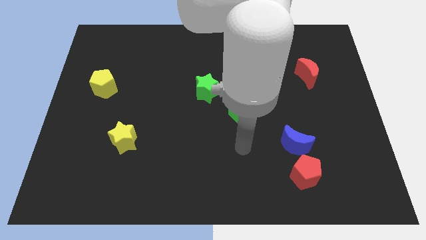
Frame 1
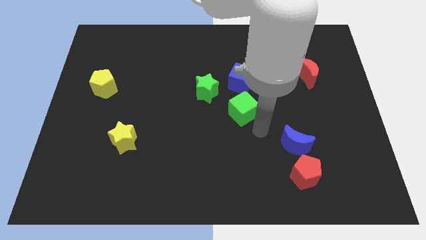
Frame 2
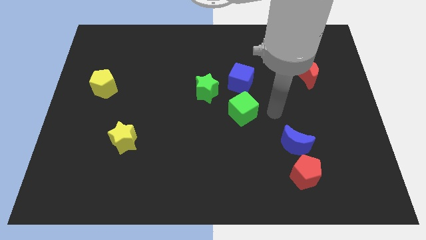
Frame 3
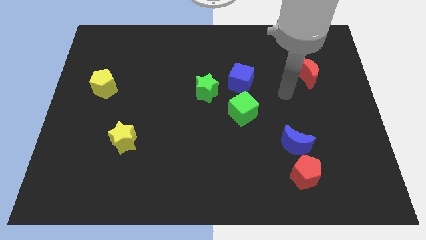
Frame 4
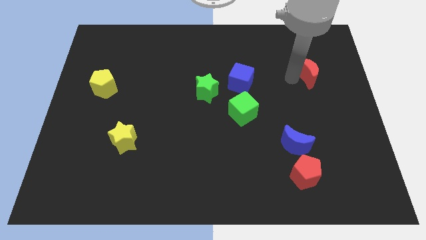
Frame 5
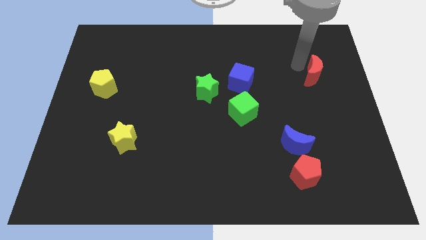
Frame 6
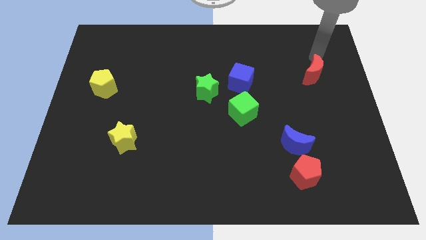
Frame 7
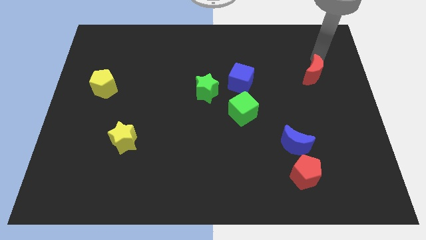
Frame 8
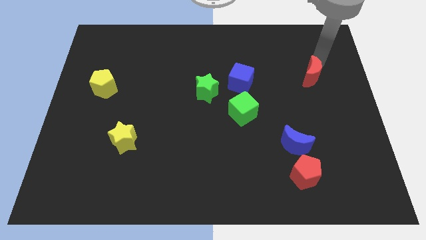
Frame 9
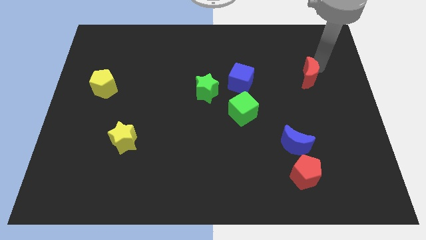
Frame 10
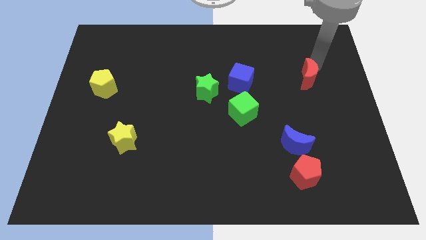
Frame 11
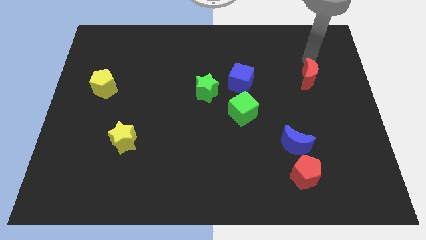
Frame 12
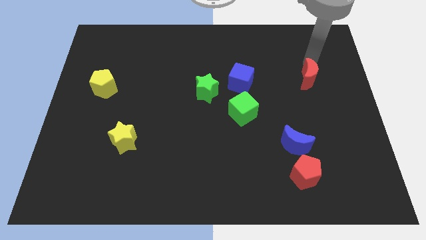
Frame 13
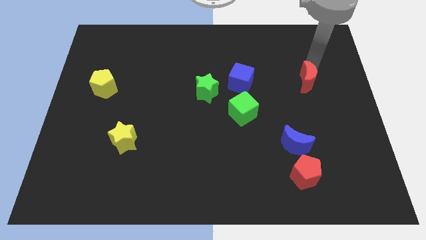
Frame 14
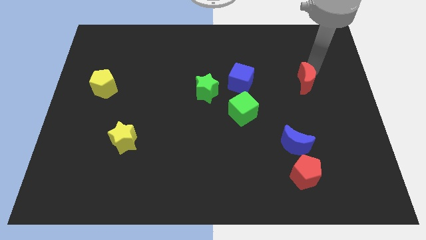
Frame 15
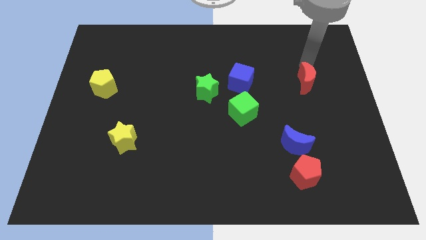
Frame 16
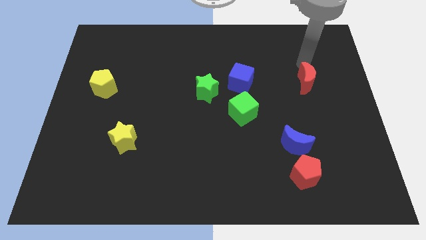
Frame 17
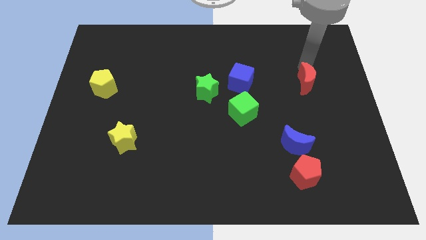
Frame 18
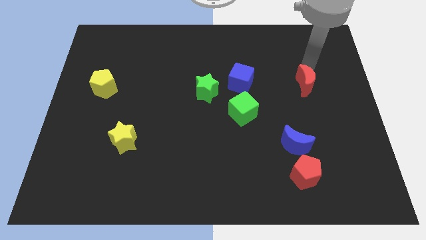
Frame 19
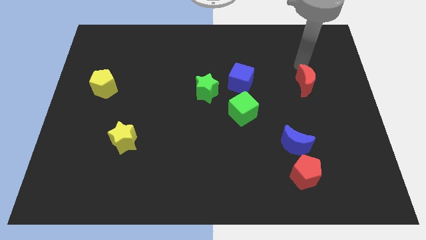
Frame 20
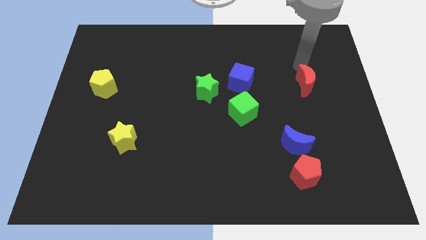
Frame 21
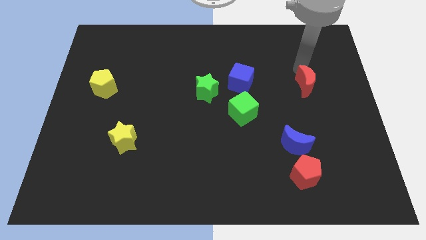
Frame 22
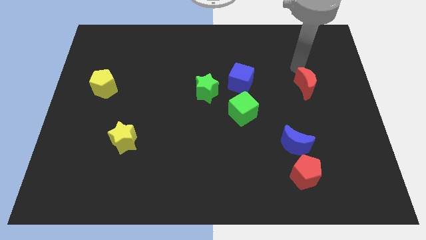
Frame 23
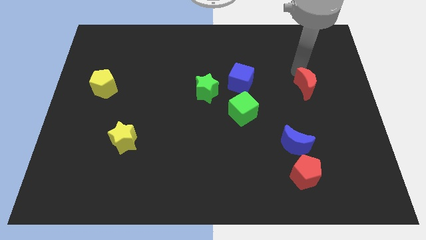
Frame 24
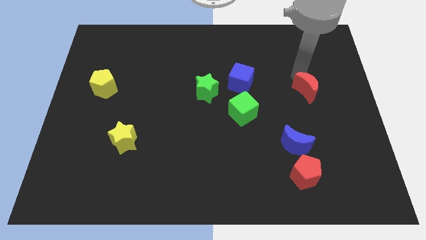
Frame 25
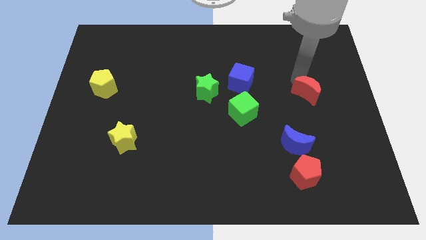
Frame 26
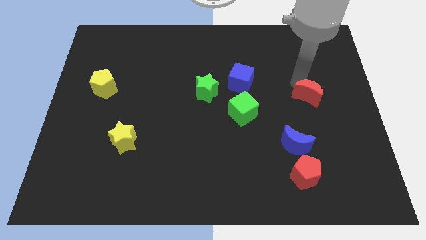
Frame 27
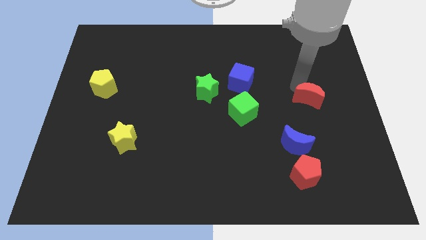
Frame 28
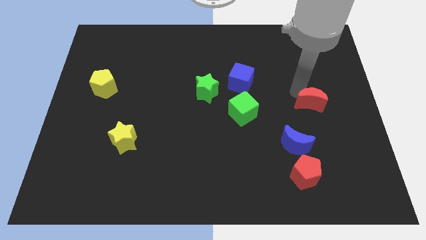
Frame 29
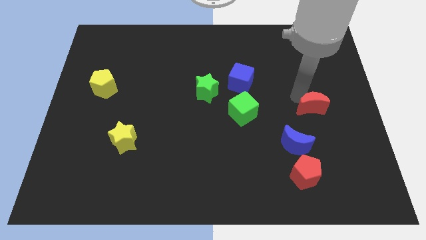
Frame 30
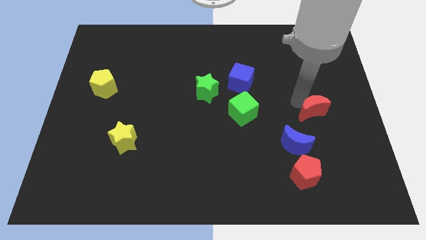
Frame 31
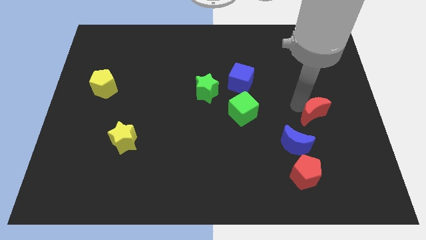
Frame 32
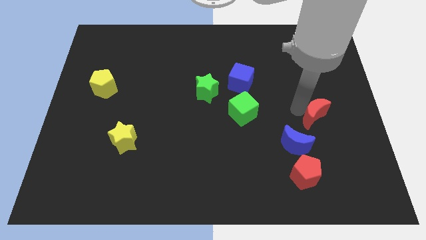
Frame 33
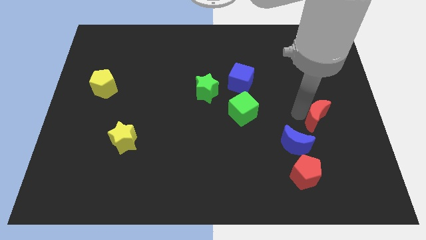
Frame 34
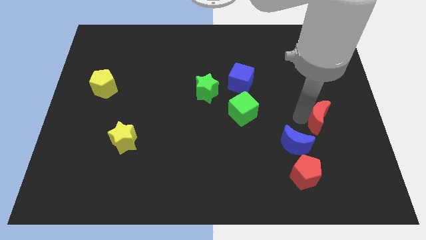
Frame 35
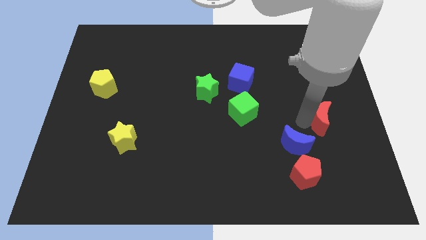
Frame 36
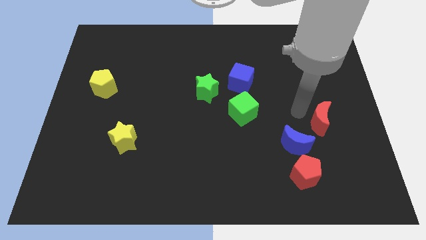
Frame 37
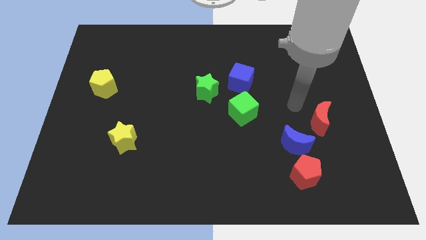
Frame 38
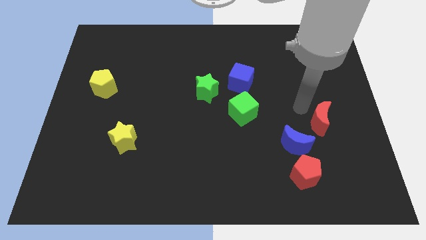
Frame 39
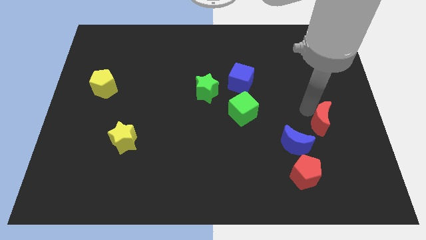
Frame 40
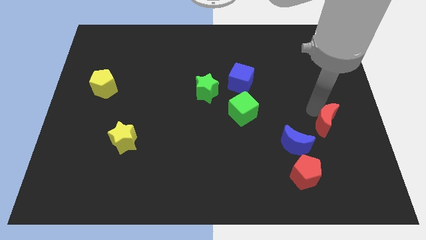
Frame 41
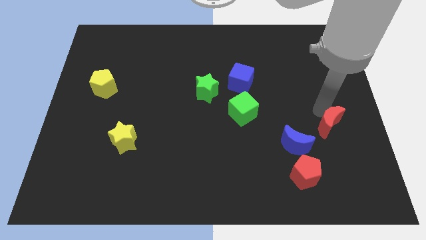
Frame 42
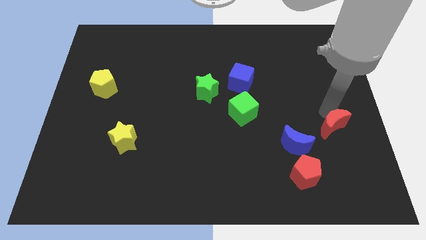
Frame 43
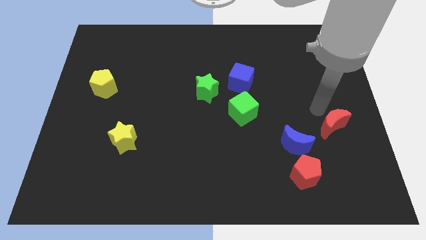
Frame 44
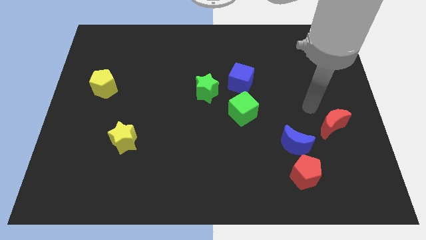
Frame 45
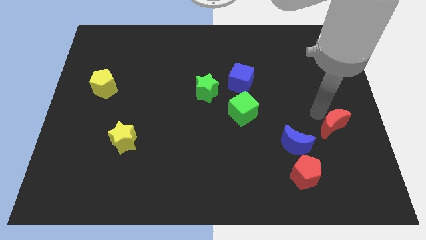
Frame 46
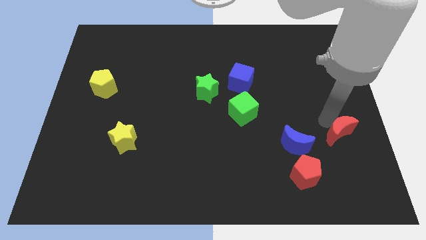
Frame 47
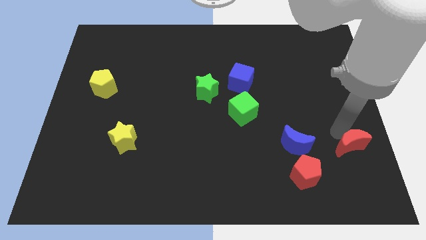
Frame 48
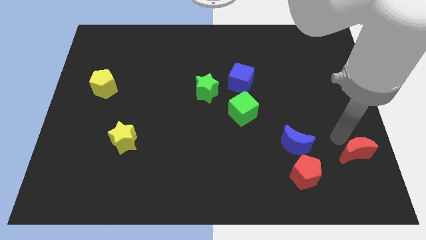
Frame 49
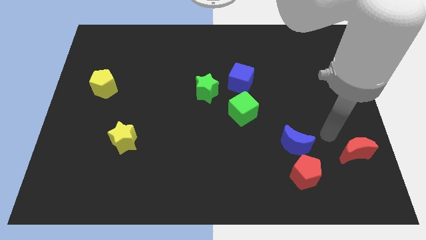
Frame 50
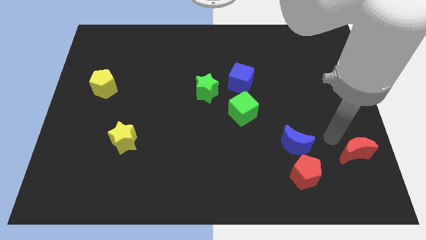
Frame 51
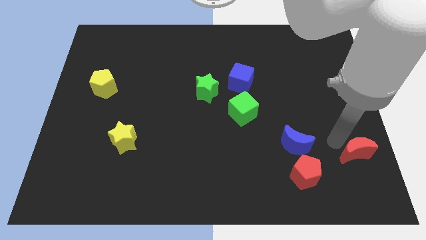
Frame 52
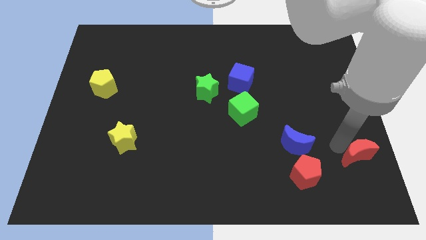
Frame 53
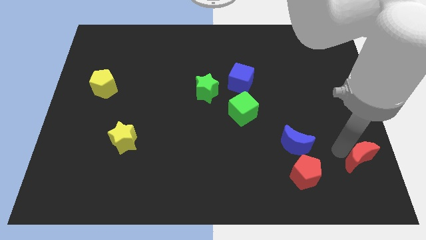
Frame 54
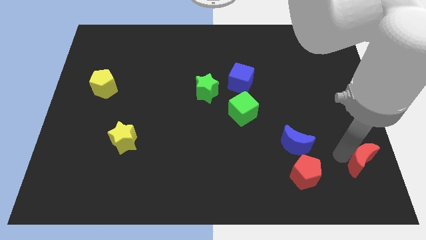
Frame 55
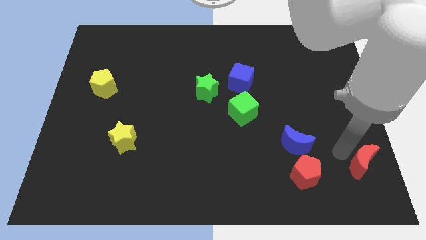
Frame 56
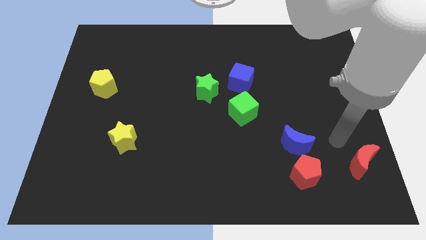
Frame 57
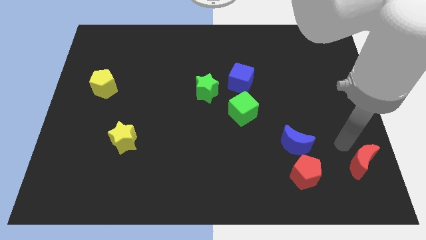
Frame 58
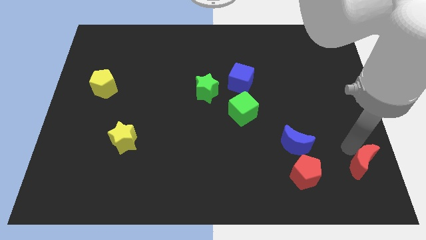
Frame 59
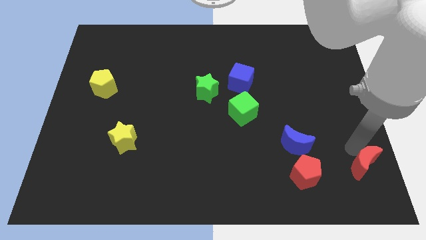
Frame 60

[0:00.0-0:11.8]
put the red moon to the bottom right

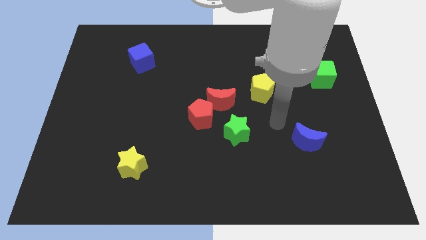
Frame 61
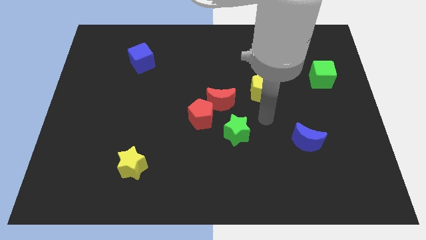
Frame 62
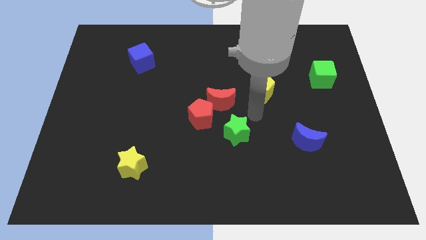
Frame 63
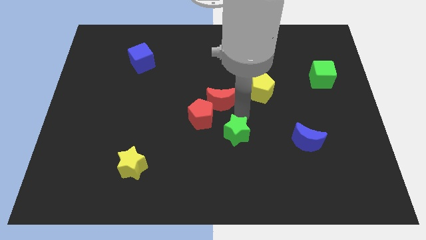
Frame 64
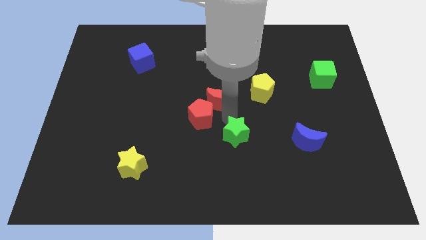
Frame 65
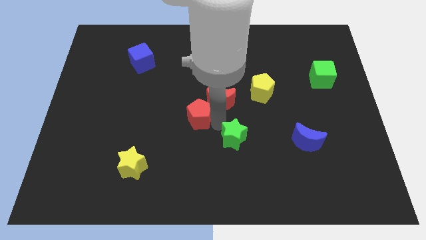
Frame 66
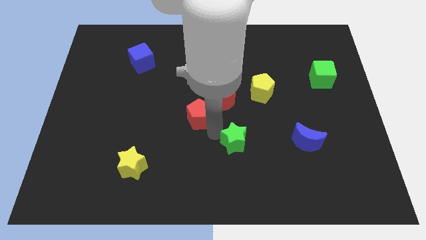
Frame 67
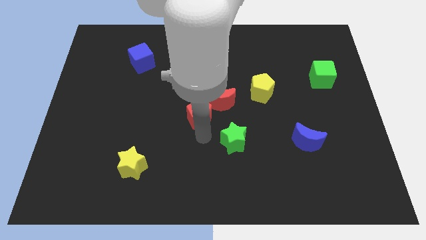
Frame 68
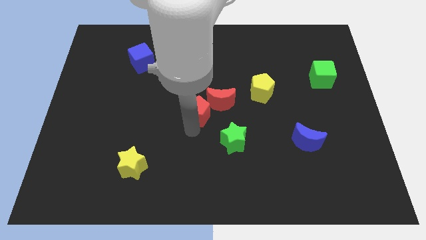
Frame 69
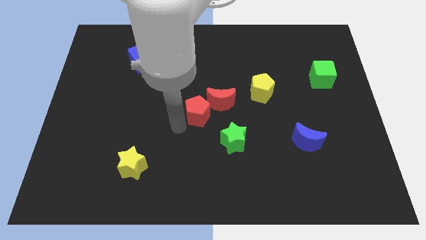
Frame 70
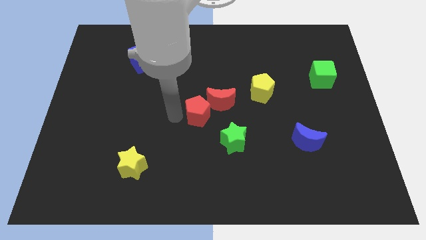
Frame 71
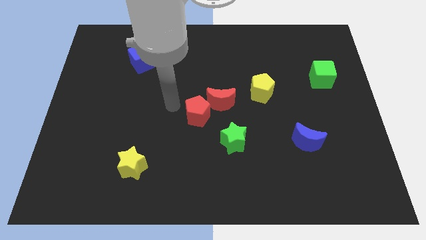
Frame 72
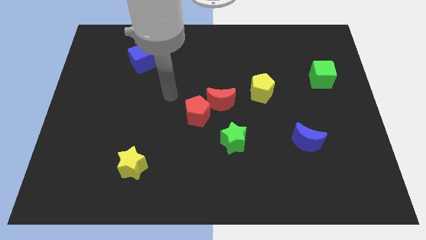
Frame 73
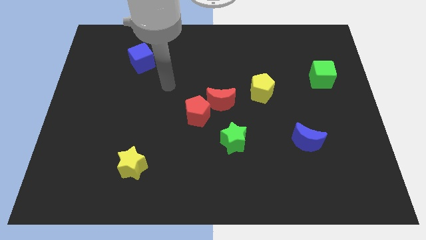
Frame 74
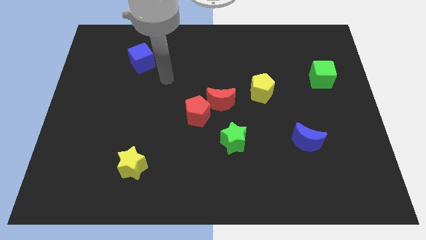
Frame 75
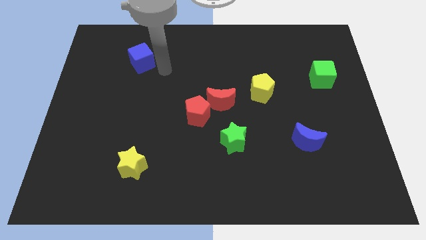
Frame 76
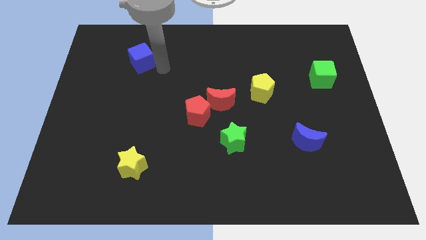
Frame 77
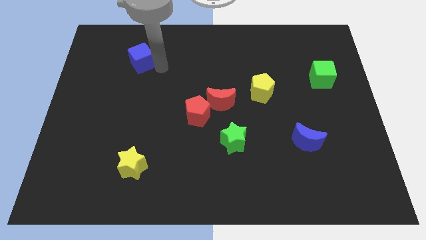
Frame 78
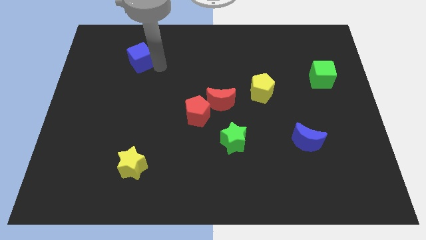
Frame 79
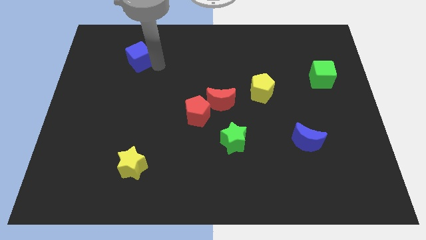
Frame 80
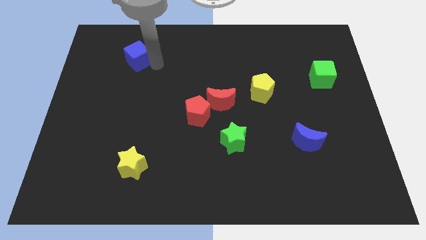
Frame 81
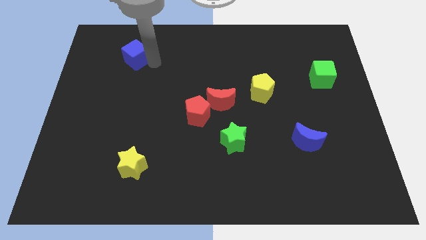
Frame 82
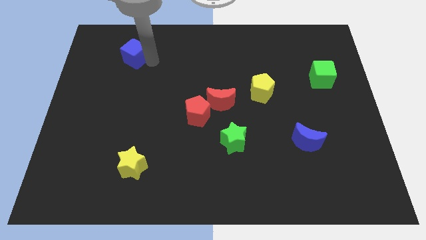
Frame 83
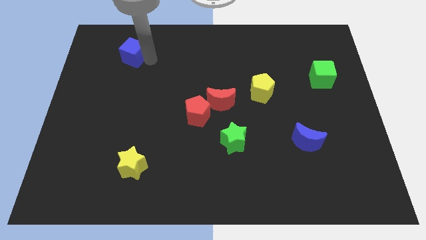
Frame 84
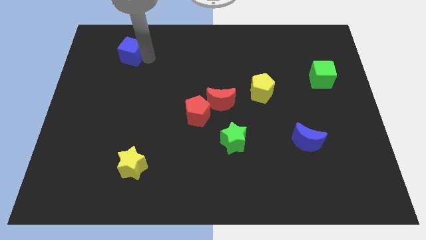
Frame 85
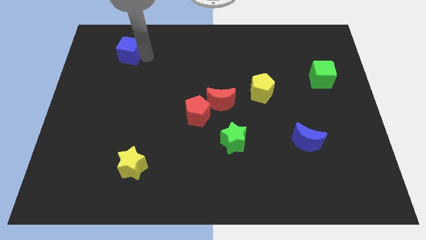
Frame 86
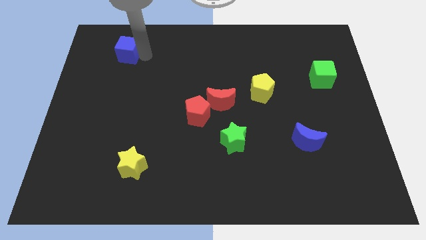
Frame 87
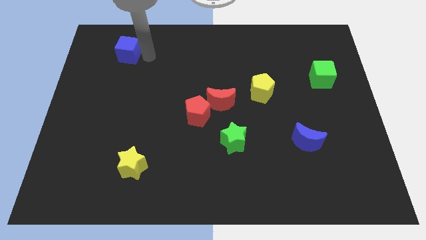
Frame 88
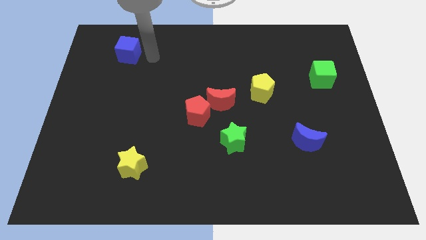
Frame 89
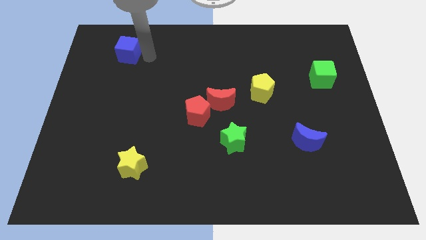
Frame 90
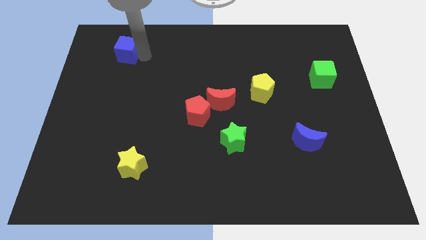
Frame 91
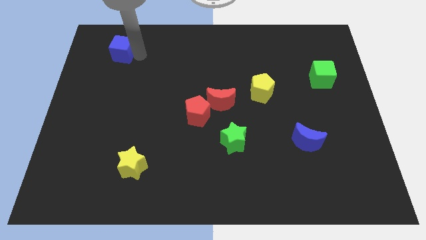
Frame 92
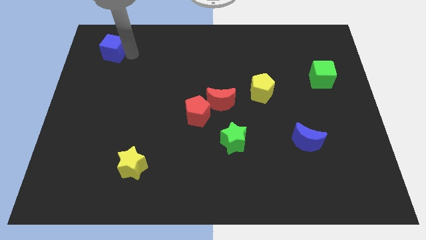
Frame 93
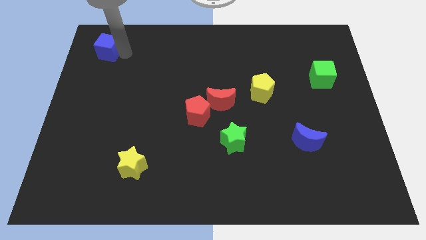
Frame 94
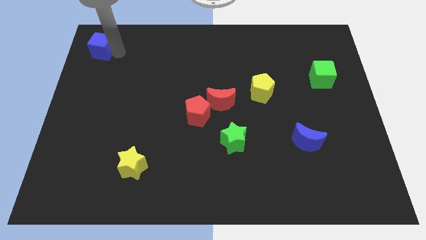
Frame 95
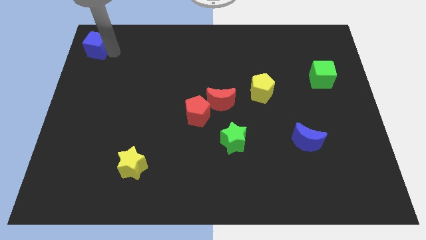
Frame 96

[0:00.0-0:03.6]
move the blue cube to the upper left corner
